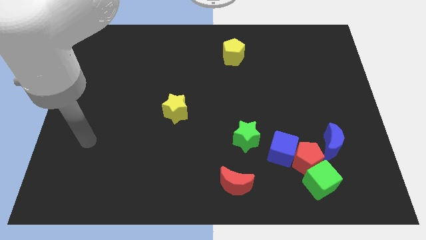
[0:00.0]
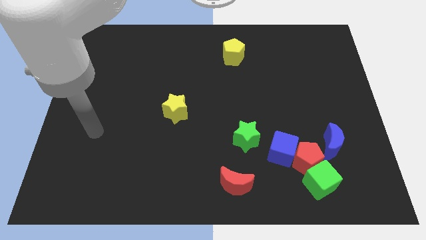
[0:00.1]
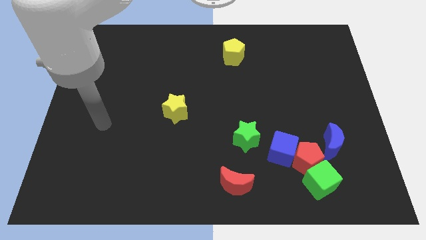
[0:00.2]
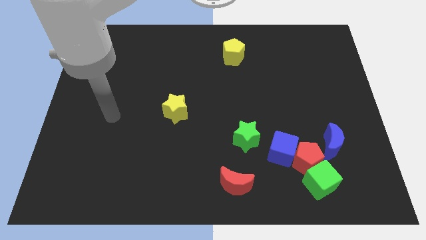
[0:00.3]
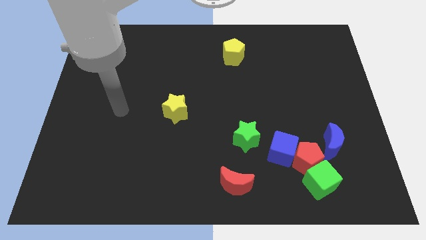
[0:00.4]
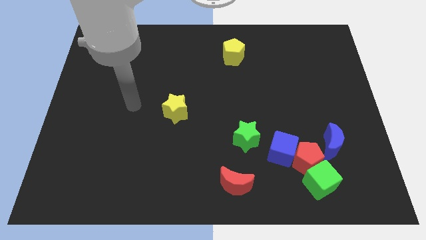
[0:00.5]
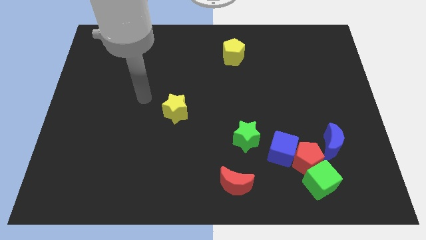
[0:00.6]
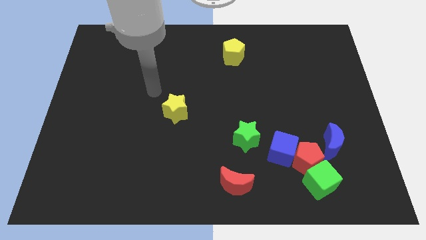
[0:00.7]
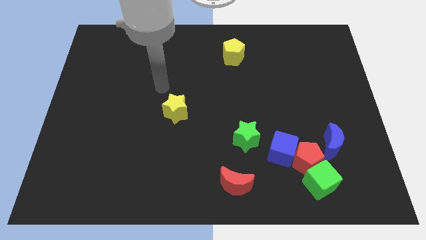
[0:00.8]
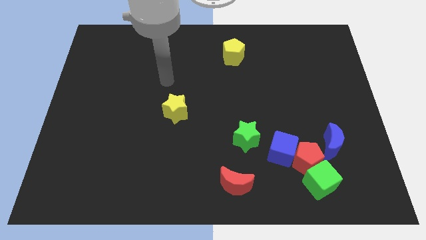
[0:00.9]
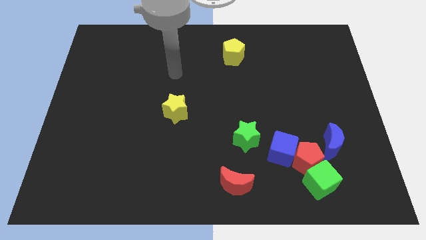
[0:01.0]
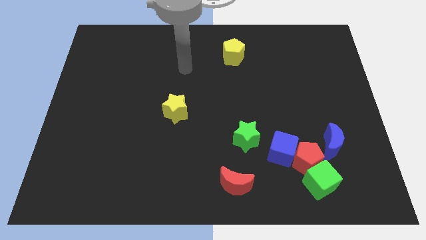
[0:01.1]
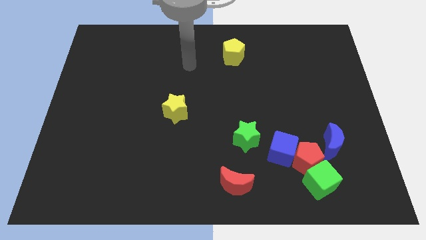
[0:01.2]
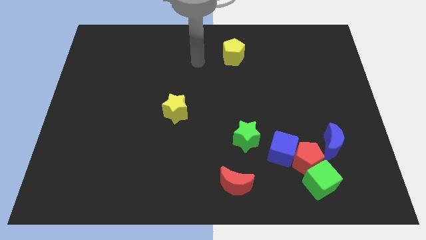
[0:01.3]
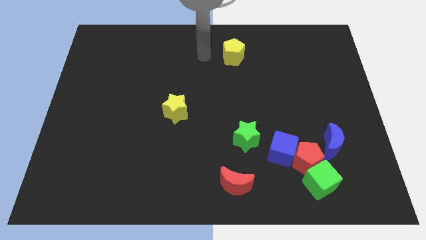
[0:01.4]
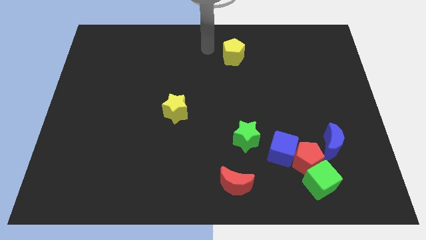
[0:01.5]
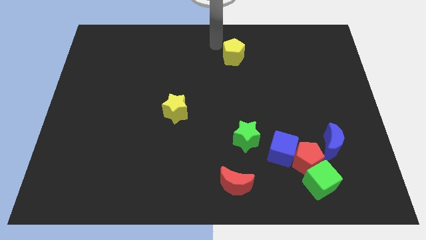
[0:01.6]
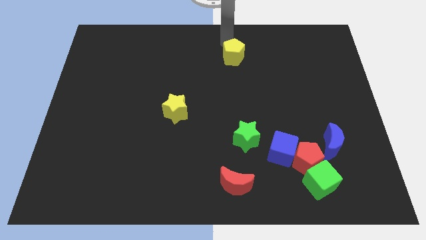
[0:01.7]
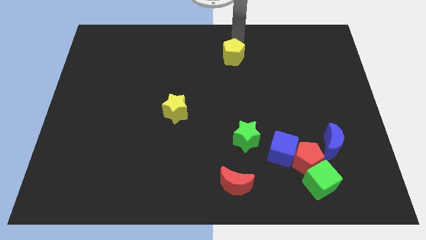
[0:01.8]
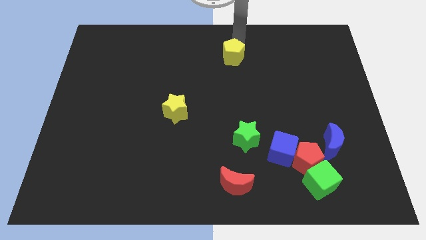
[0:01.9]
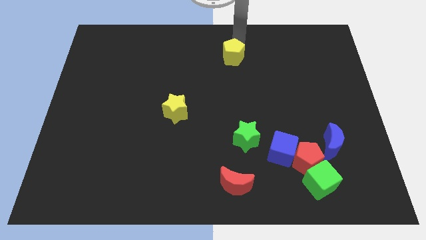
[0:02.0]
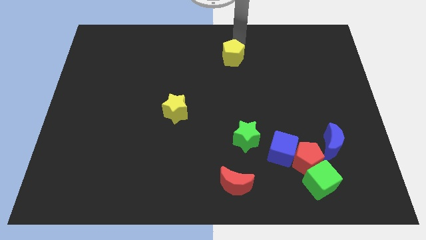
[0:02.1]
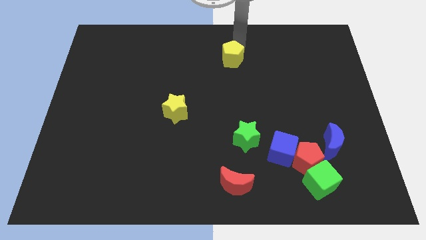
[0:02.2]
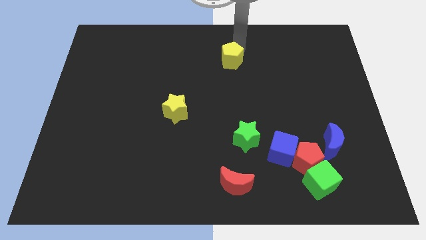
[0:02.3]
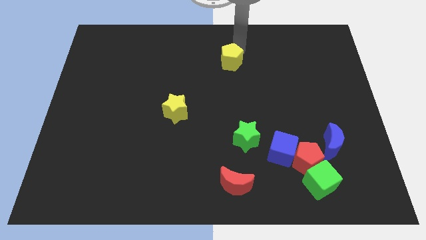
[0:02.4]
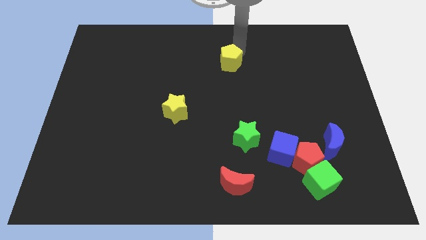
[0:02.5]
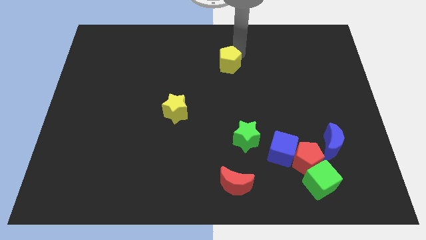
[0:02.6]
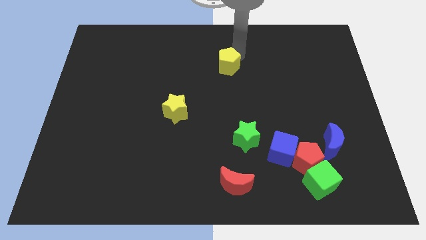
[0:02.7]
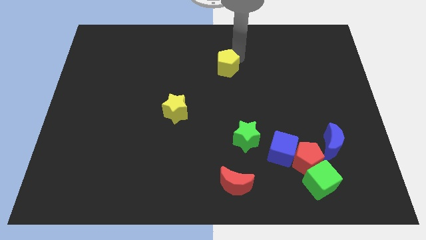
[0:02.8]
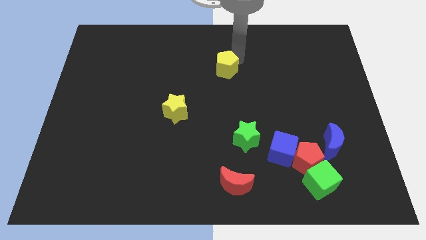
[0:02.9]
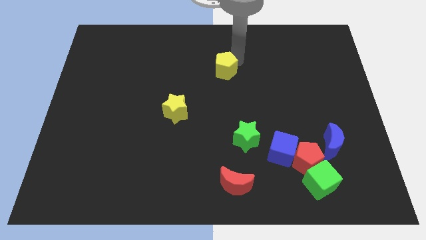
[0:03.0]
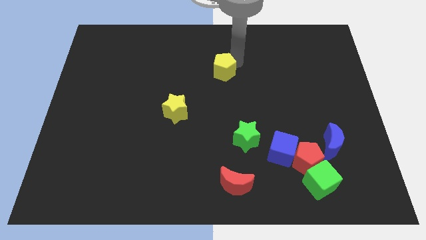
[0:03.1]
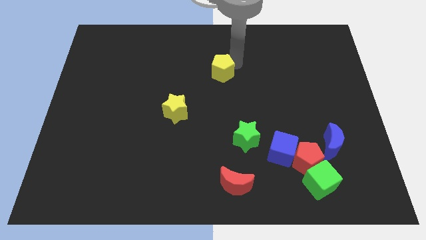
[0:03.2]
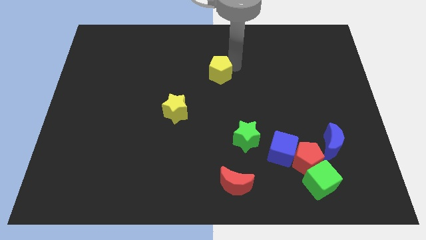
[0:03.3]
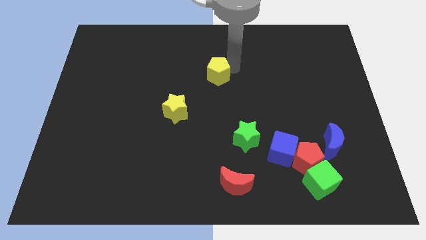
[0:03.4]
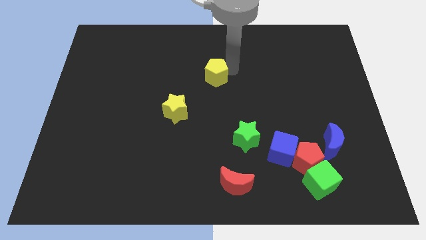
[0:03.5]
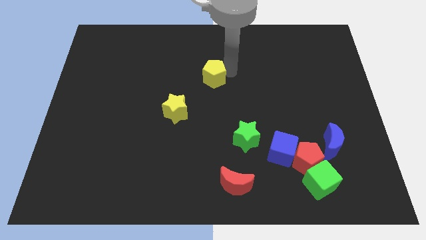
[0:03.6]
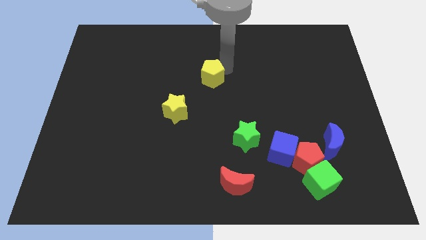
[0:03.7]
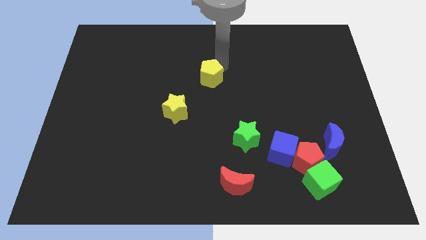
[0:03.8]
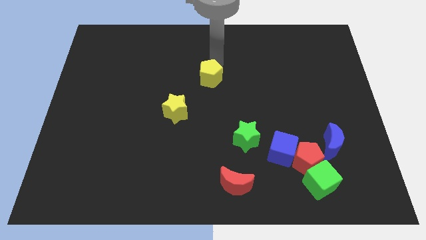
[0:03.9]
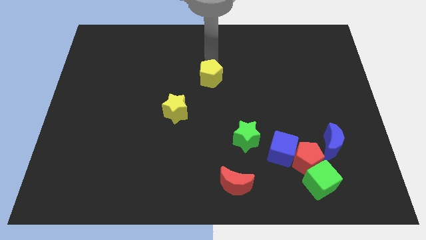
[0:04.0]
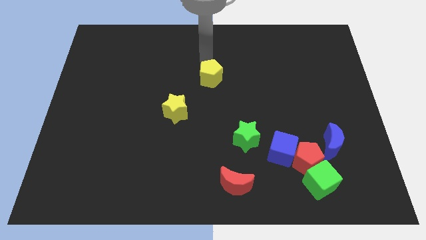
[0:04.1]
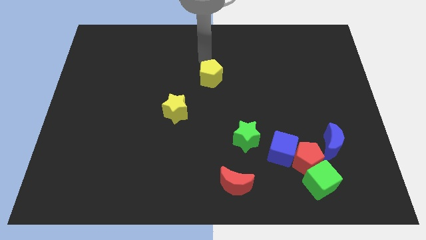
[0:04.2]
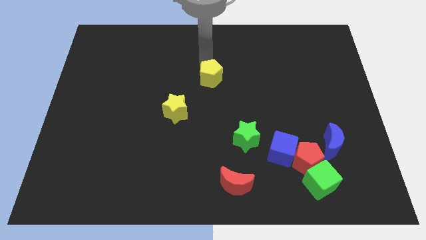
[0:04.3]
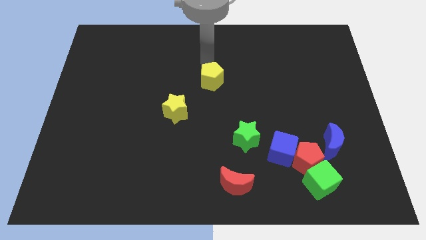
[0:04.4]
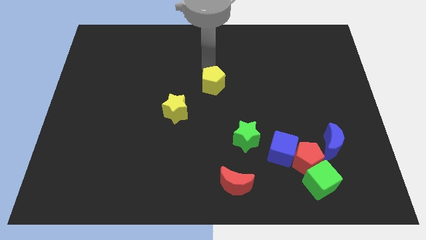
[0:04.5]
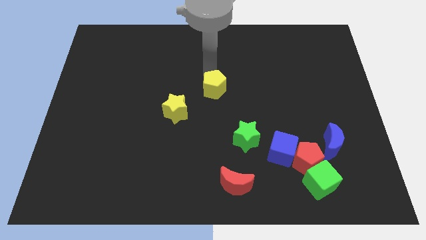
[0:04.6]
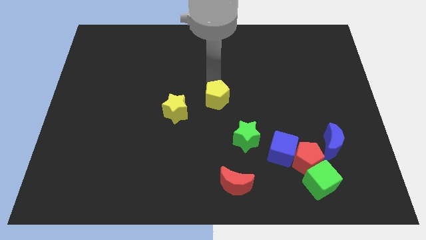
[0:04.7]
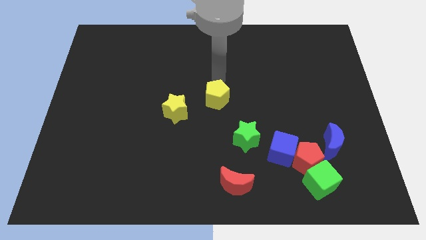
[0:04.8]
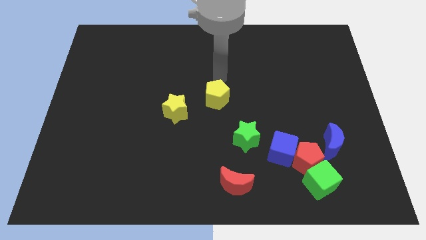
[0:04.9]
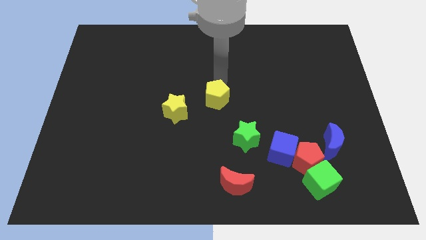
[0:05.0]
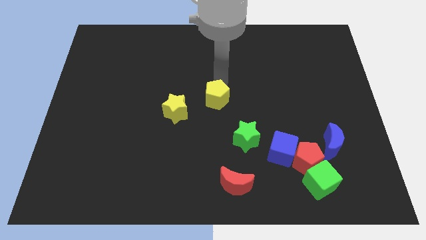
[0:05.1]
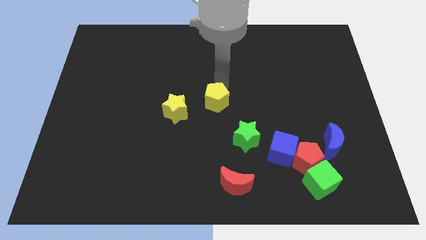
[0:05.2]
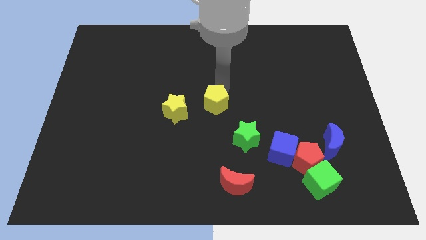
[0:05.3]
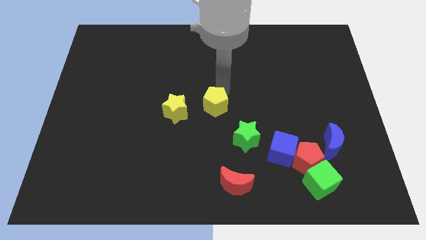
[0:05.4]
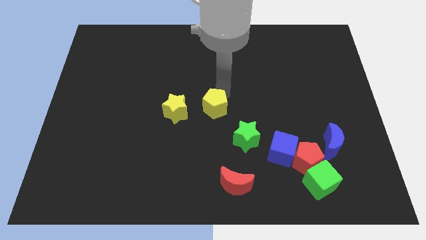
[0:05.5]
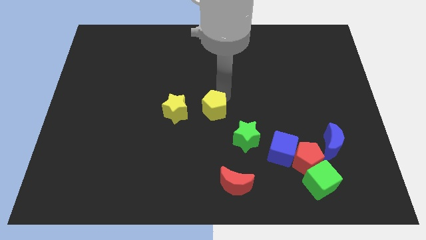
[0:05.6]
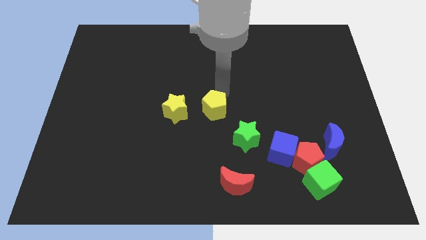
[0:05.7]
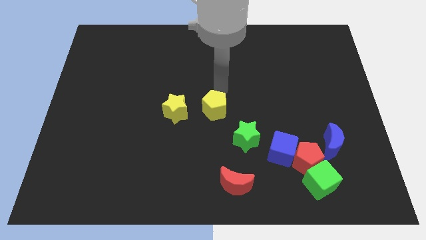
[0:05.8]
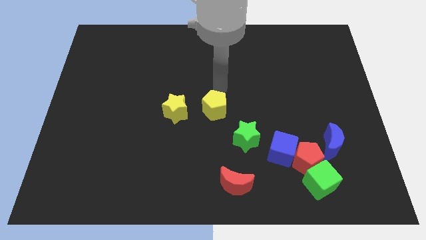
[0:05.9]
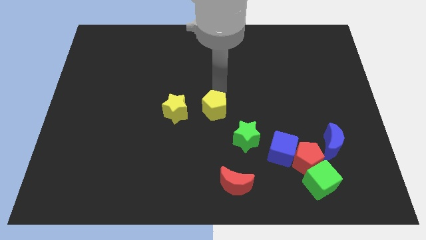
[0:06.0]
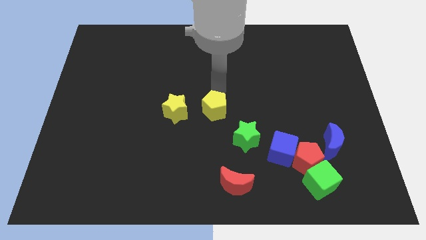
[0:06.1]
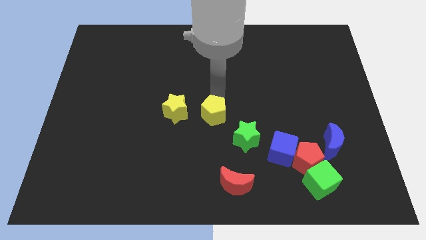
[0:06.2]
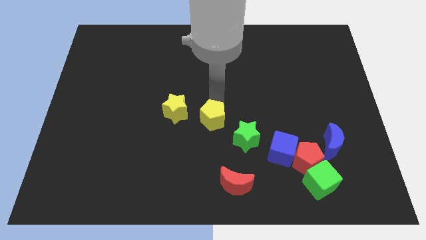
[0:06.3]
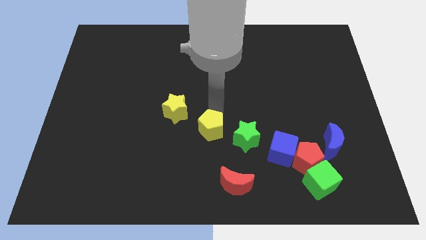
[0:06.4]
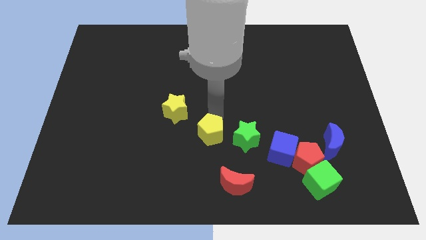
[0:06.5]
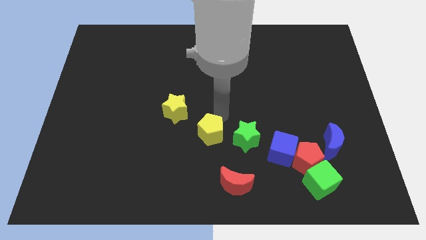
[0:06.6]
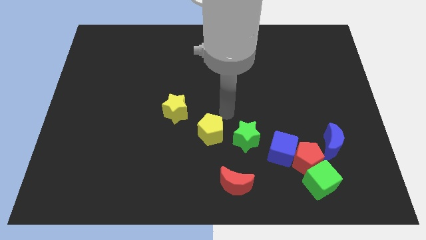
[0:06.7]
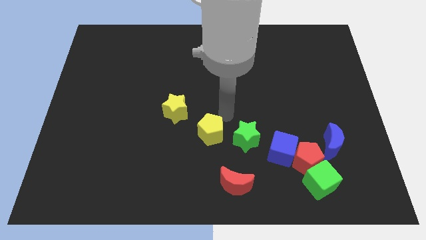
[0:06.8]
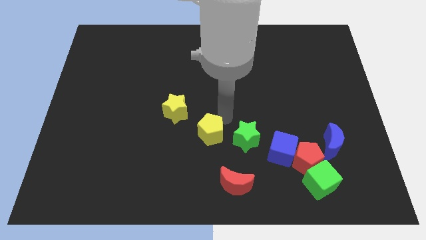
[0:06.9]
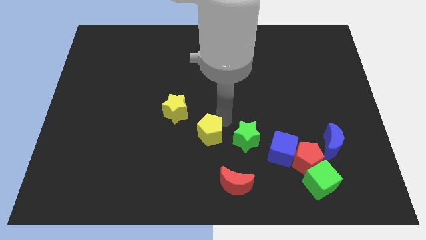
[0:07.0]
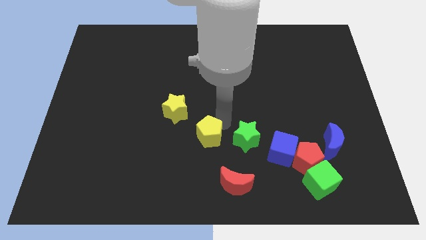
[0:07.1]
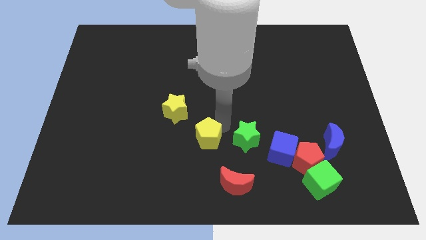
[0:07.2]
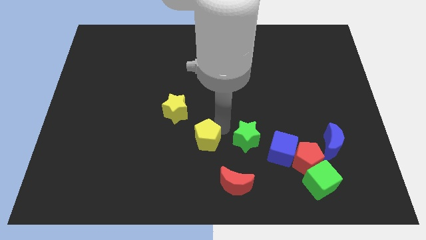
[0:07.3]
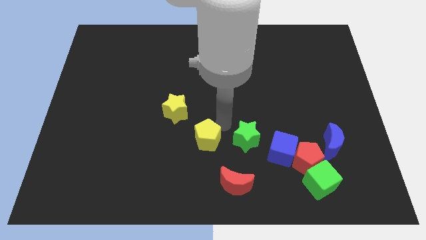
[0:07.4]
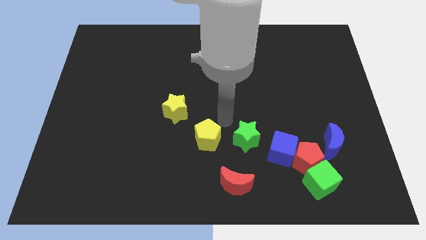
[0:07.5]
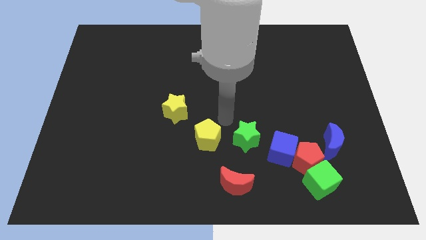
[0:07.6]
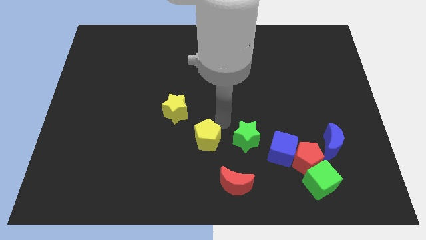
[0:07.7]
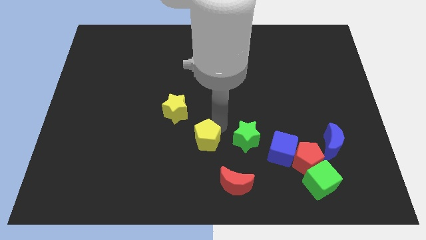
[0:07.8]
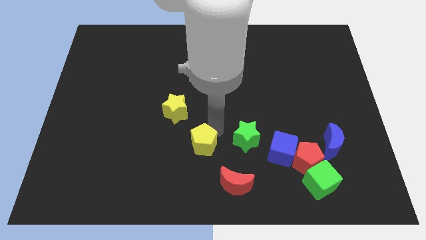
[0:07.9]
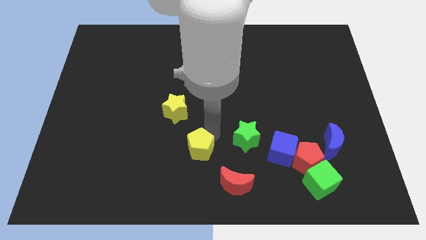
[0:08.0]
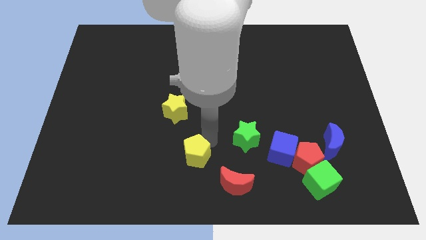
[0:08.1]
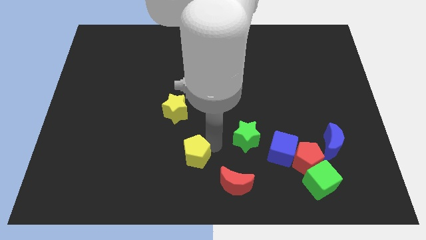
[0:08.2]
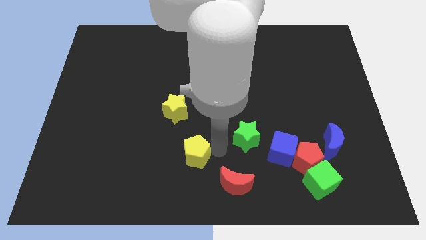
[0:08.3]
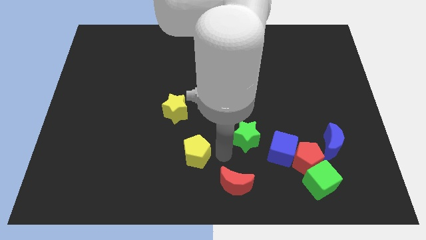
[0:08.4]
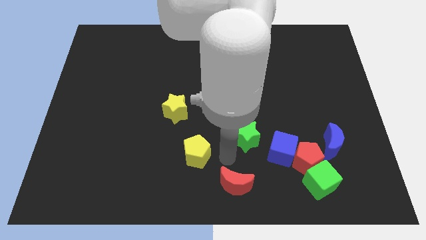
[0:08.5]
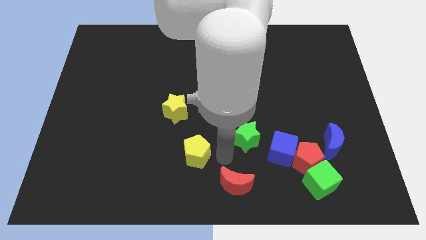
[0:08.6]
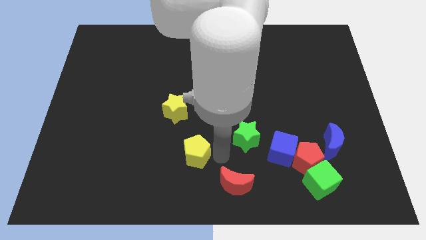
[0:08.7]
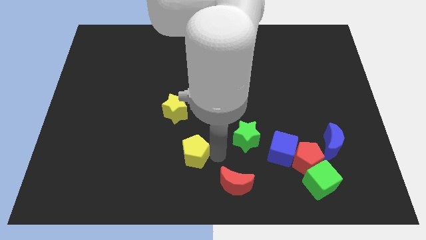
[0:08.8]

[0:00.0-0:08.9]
push the yellow pentagon below the yellow star
